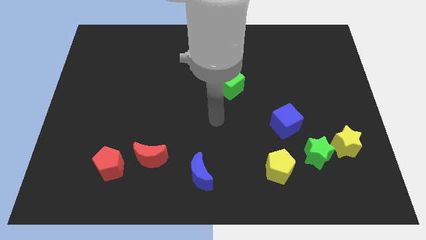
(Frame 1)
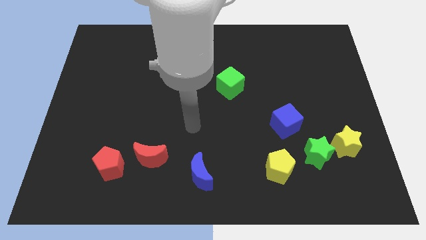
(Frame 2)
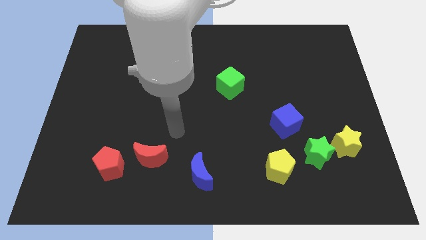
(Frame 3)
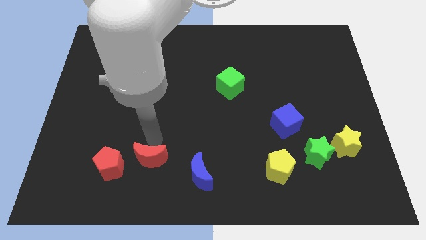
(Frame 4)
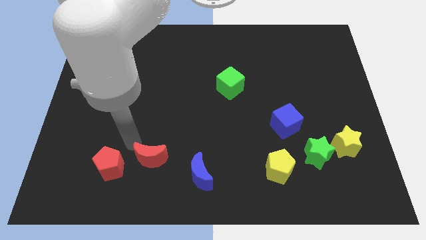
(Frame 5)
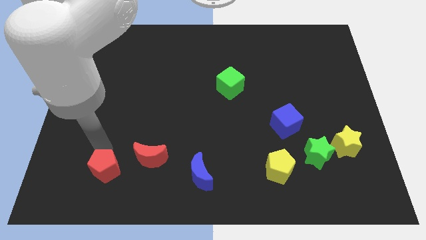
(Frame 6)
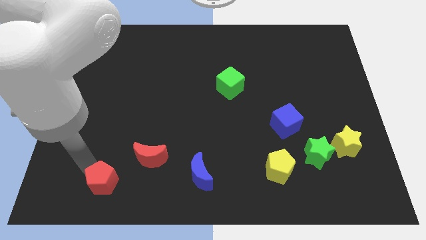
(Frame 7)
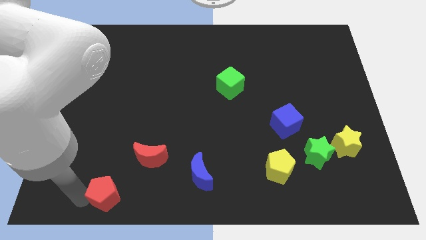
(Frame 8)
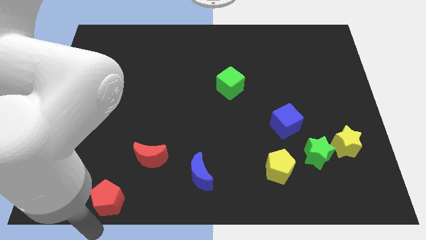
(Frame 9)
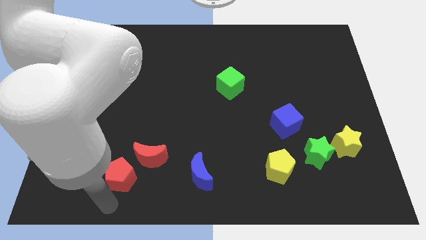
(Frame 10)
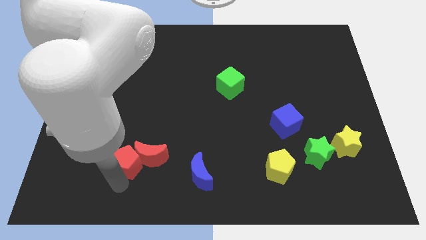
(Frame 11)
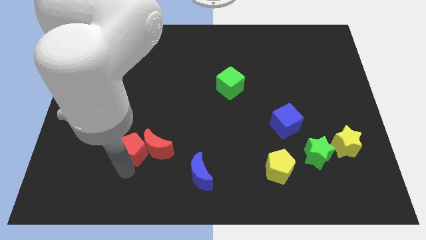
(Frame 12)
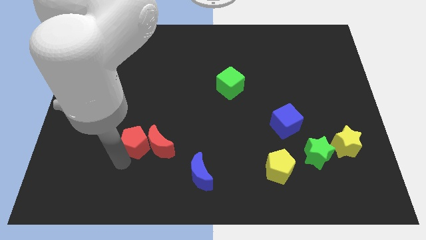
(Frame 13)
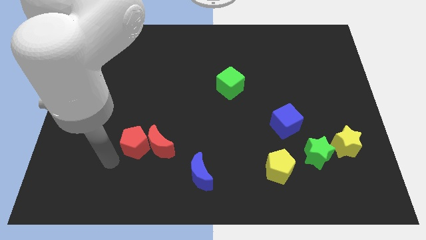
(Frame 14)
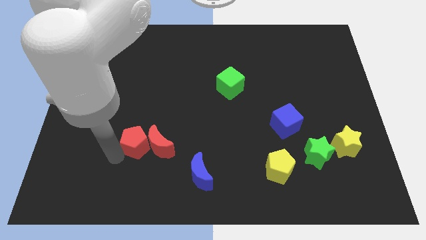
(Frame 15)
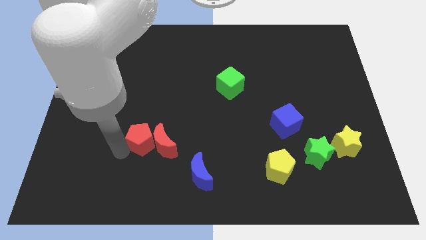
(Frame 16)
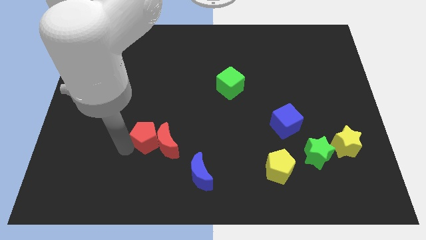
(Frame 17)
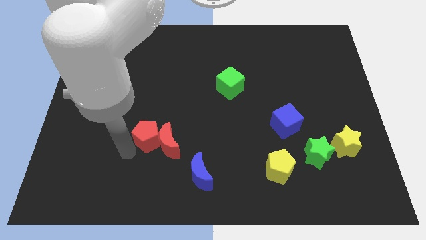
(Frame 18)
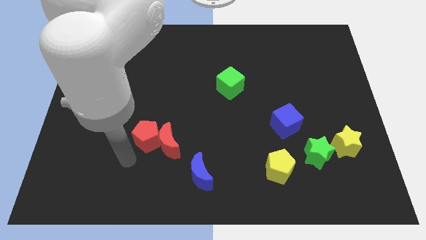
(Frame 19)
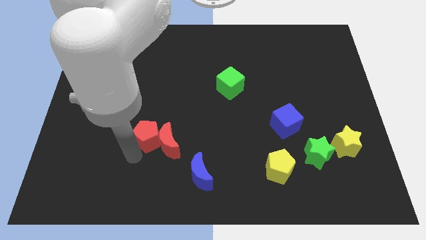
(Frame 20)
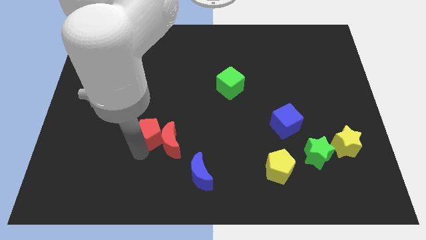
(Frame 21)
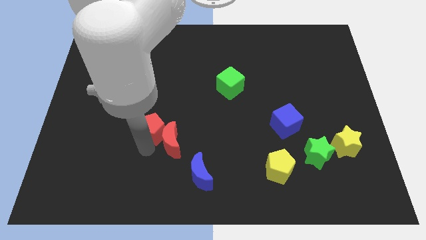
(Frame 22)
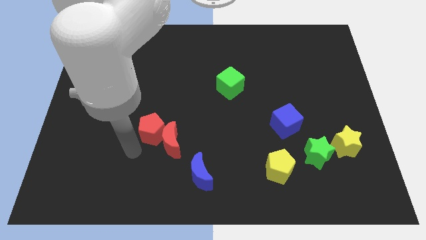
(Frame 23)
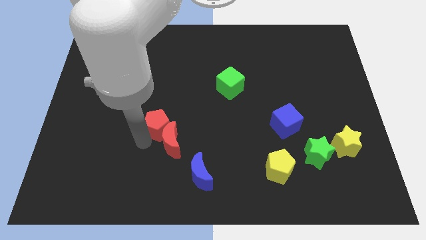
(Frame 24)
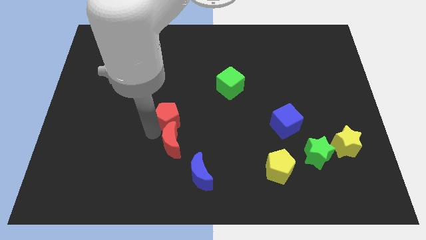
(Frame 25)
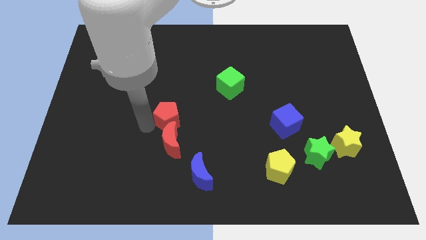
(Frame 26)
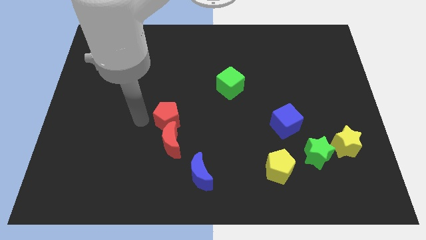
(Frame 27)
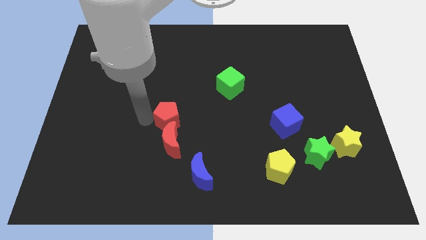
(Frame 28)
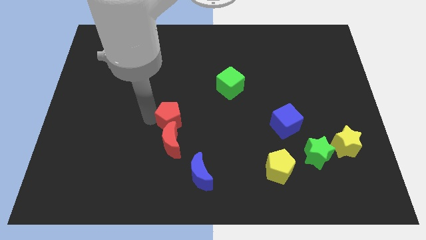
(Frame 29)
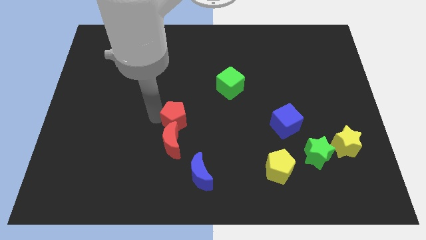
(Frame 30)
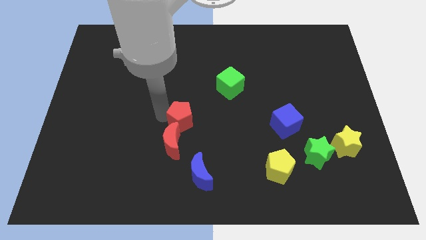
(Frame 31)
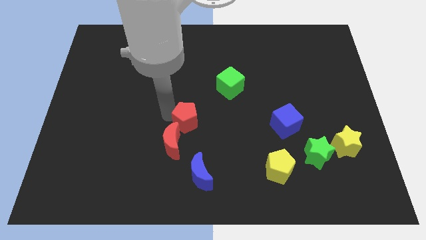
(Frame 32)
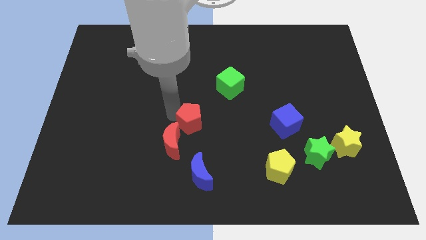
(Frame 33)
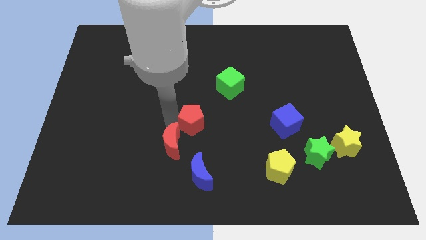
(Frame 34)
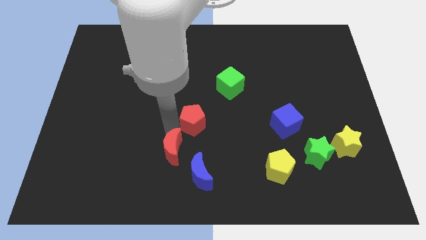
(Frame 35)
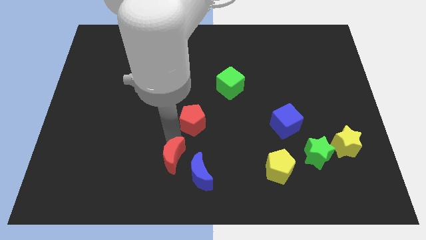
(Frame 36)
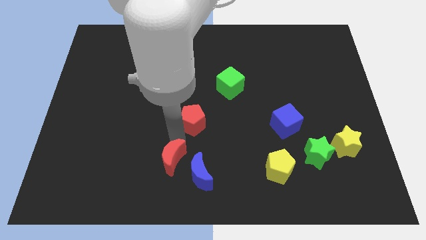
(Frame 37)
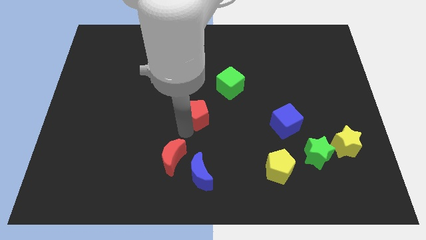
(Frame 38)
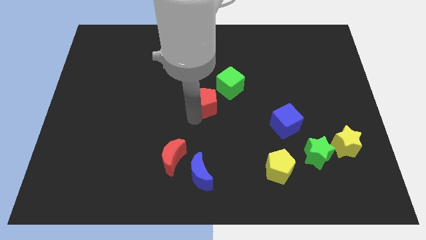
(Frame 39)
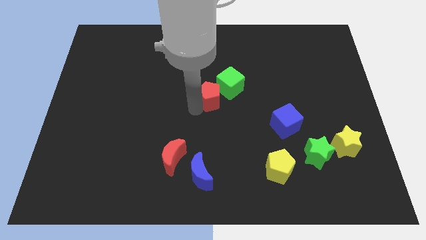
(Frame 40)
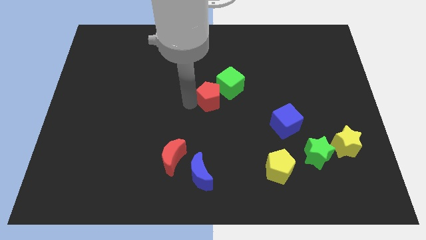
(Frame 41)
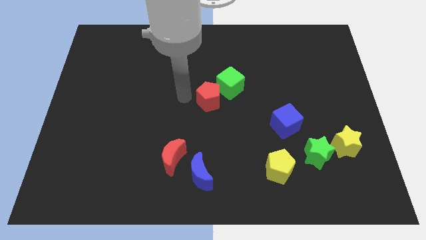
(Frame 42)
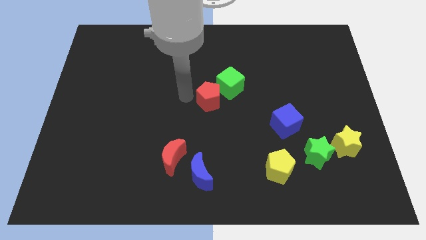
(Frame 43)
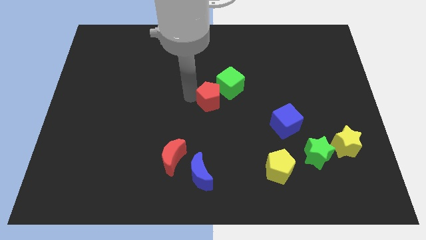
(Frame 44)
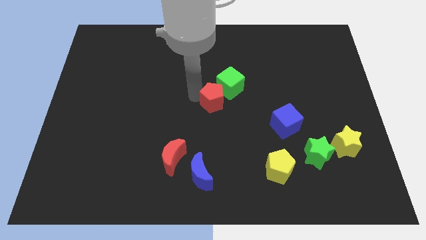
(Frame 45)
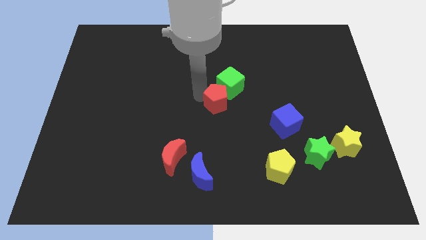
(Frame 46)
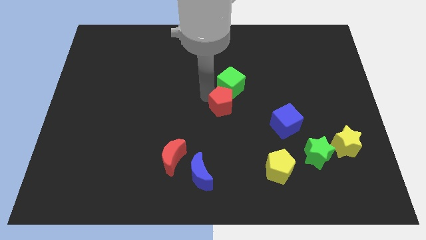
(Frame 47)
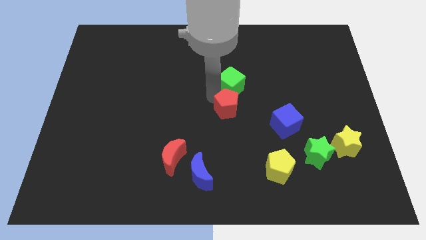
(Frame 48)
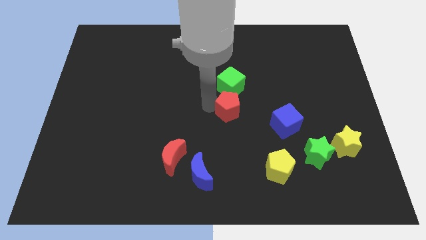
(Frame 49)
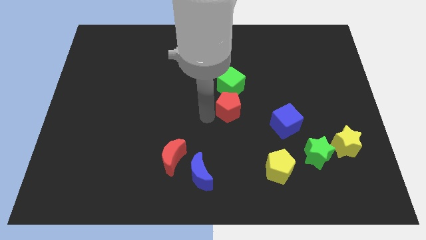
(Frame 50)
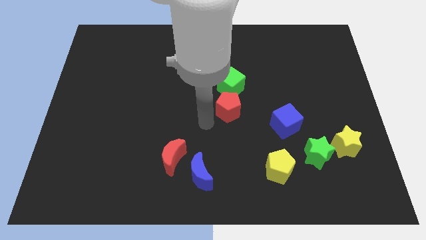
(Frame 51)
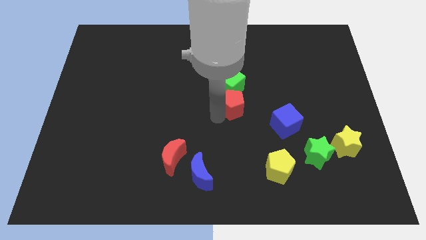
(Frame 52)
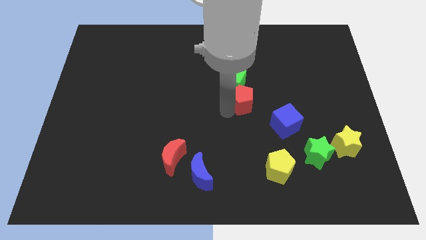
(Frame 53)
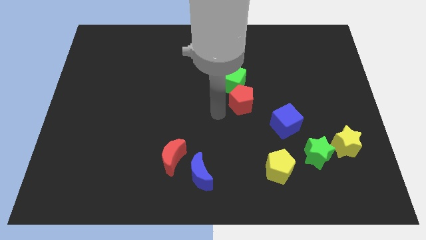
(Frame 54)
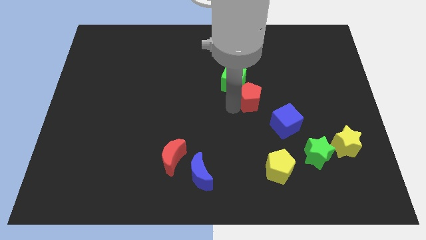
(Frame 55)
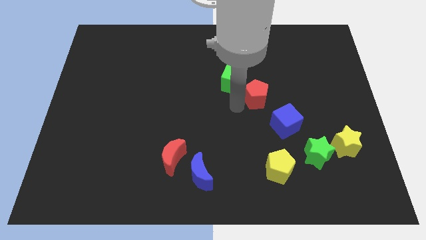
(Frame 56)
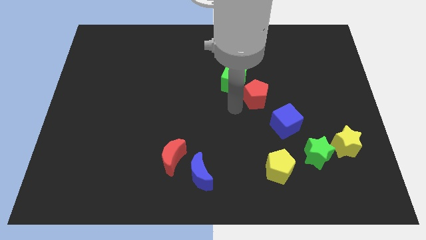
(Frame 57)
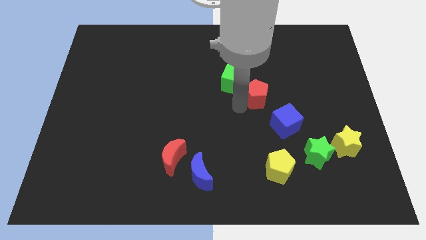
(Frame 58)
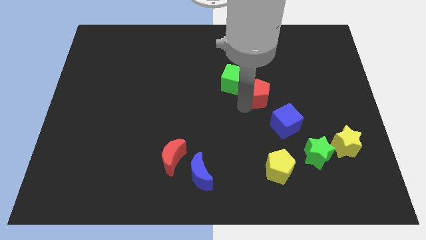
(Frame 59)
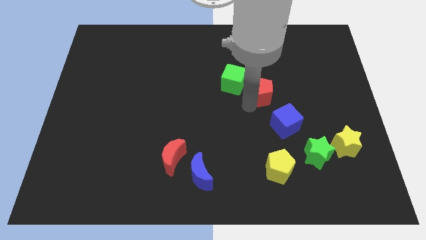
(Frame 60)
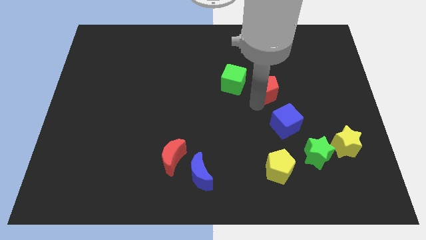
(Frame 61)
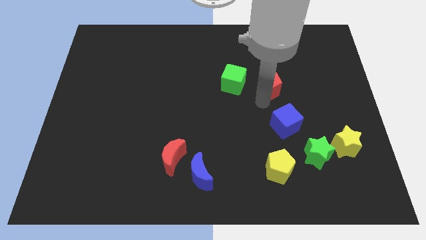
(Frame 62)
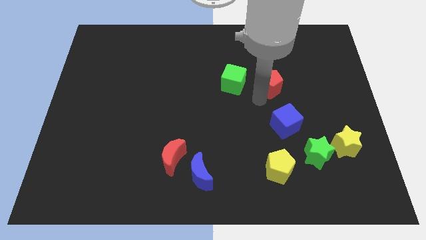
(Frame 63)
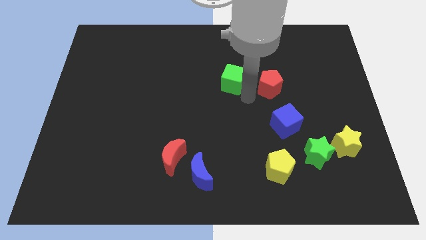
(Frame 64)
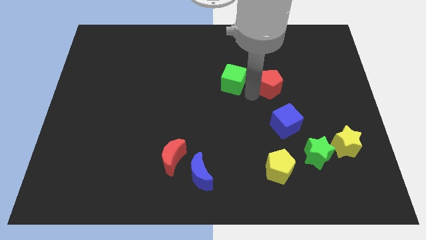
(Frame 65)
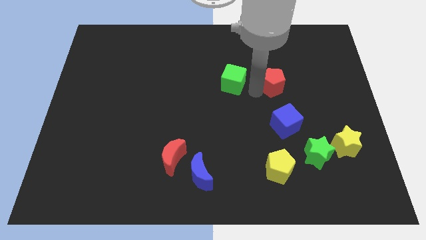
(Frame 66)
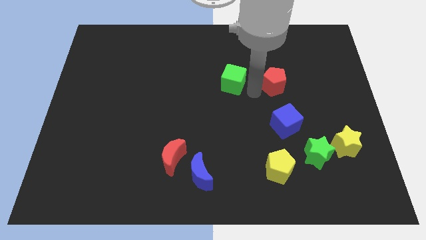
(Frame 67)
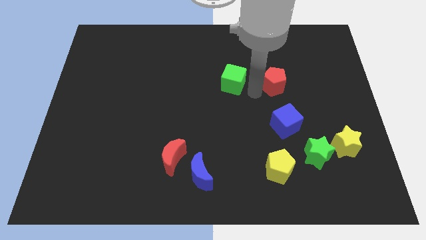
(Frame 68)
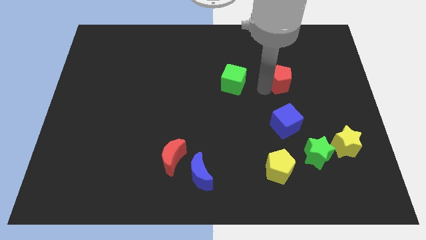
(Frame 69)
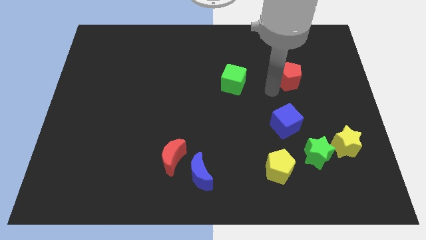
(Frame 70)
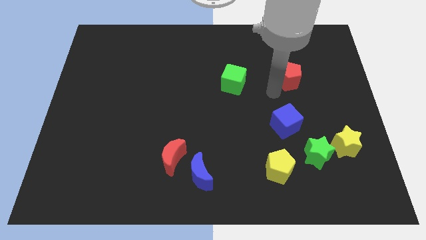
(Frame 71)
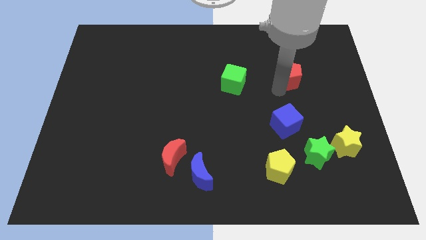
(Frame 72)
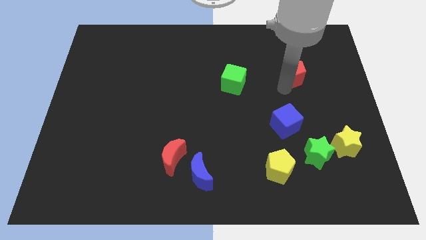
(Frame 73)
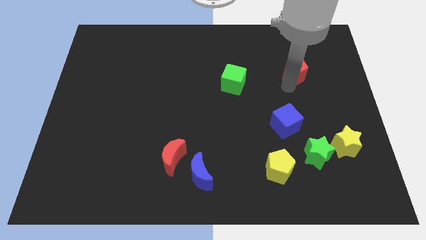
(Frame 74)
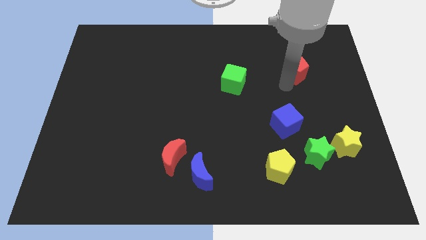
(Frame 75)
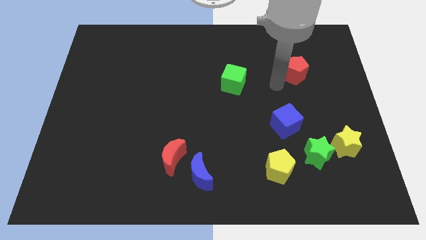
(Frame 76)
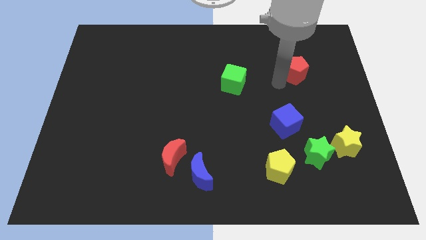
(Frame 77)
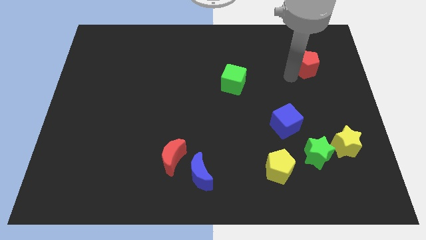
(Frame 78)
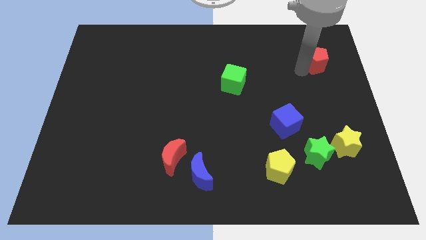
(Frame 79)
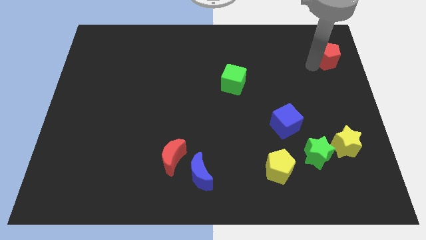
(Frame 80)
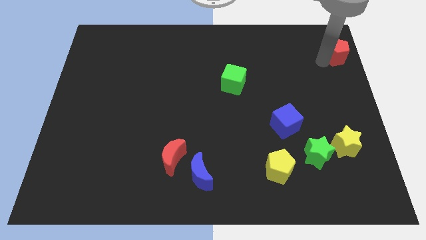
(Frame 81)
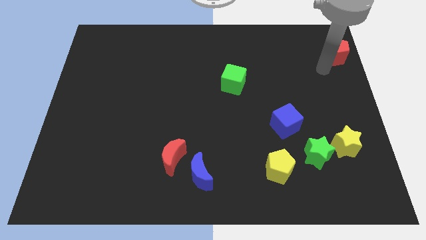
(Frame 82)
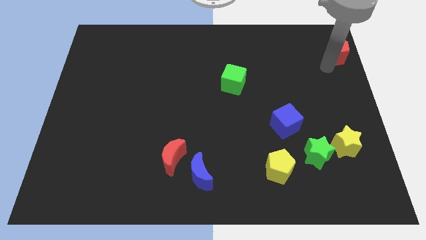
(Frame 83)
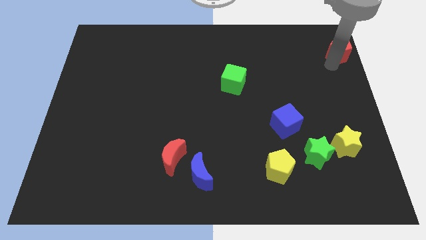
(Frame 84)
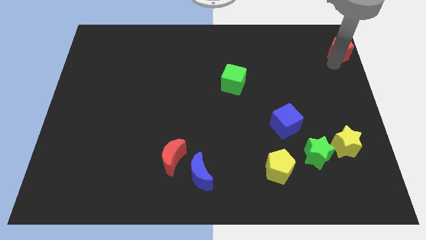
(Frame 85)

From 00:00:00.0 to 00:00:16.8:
slide the red pentagon to the upper right corner
